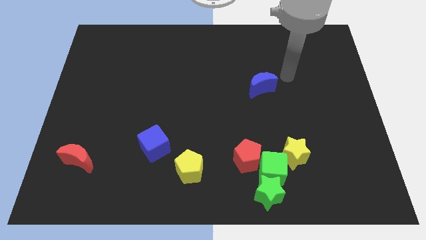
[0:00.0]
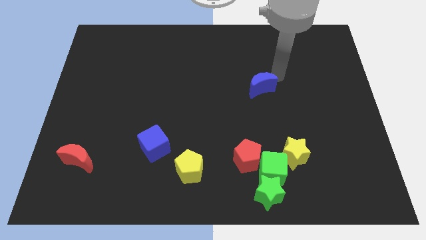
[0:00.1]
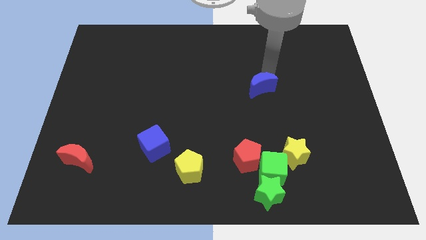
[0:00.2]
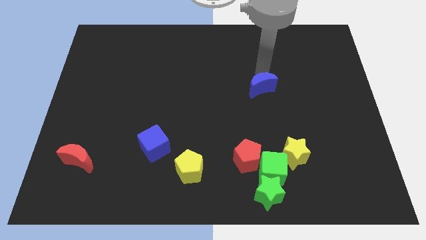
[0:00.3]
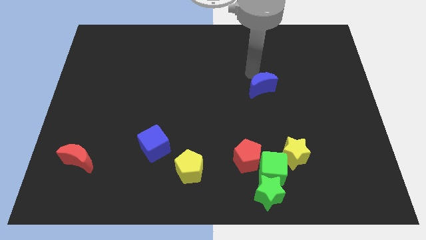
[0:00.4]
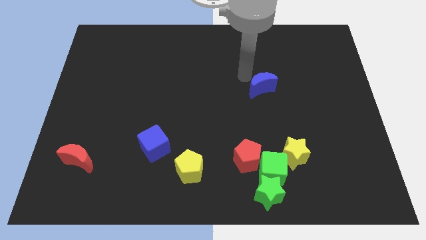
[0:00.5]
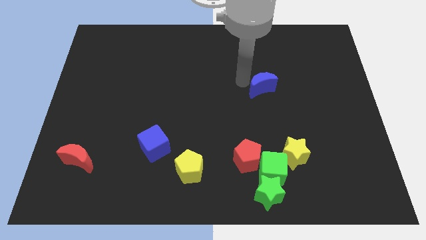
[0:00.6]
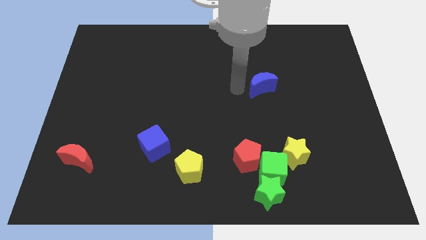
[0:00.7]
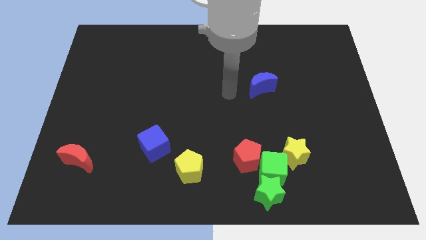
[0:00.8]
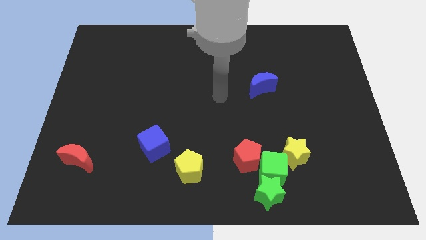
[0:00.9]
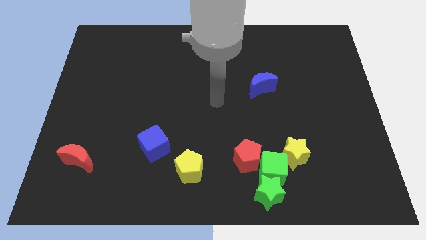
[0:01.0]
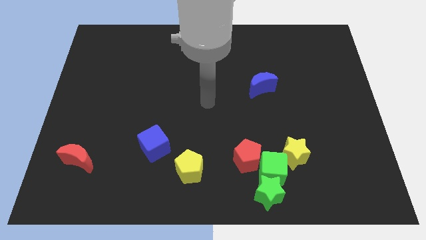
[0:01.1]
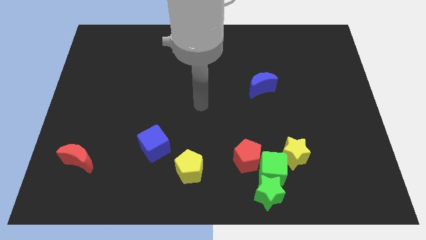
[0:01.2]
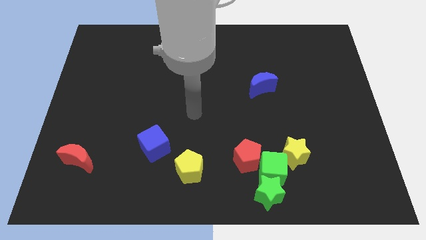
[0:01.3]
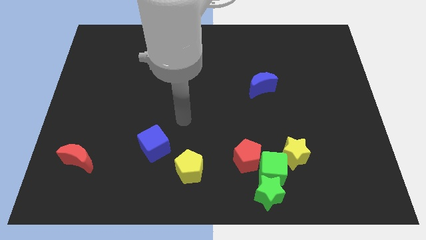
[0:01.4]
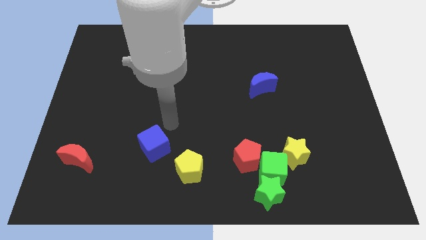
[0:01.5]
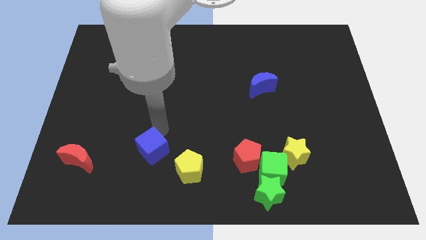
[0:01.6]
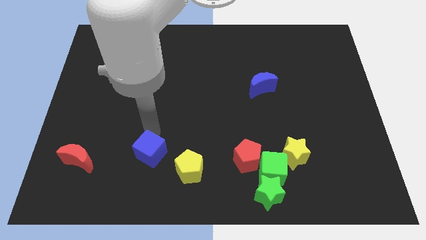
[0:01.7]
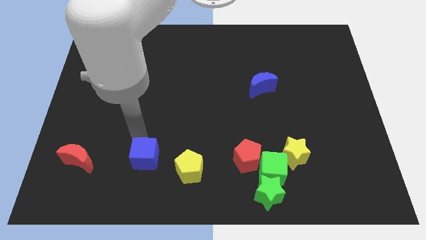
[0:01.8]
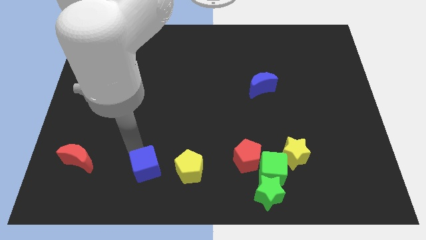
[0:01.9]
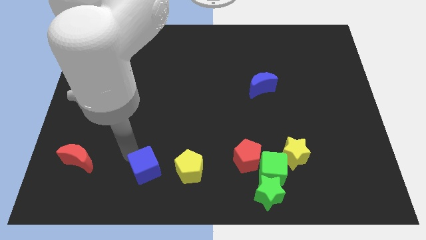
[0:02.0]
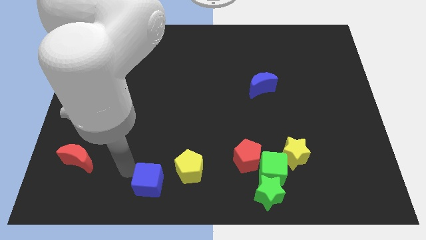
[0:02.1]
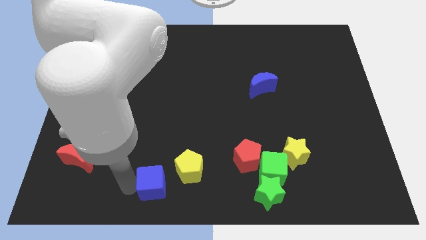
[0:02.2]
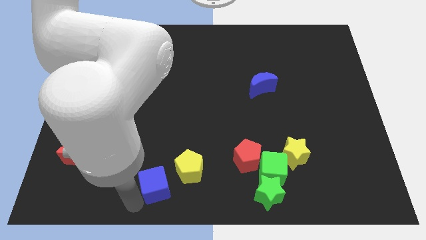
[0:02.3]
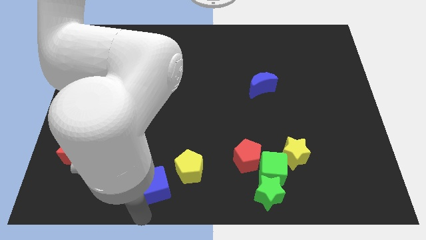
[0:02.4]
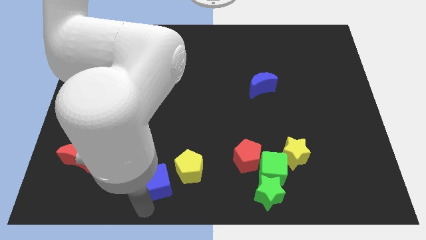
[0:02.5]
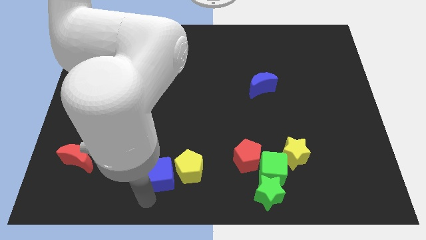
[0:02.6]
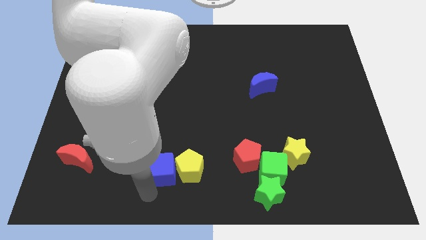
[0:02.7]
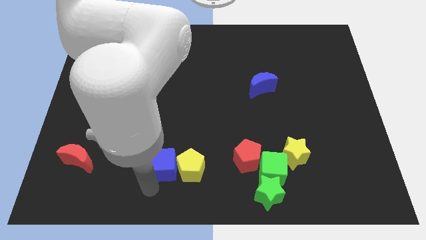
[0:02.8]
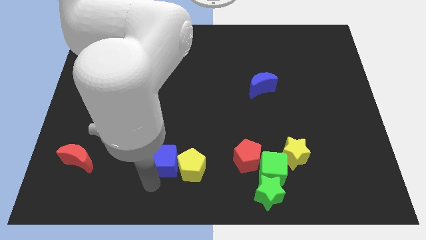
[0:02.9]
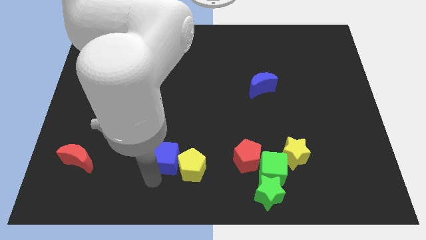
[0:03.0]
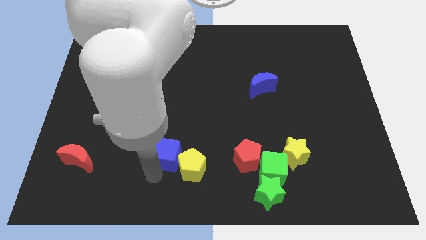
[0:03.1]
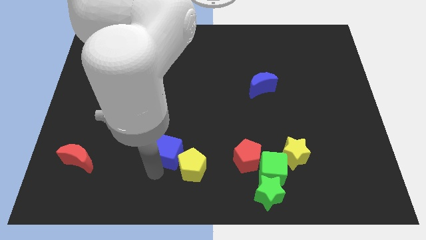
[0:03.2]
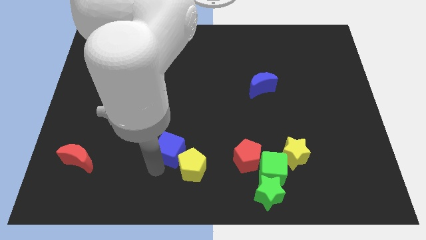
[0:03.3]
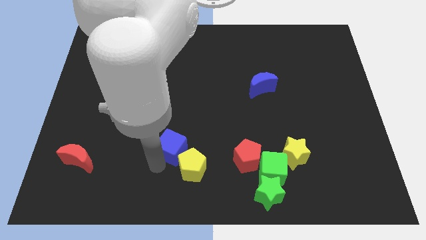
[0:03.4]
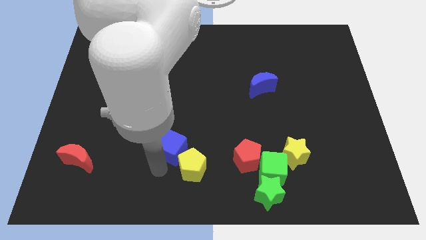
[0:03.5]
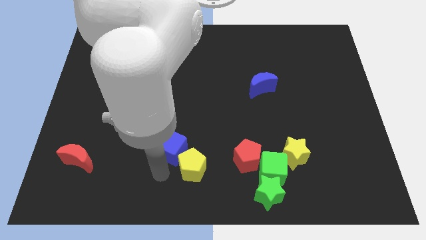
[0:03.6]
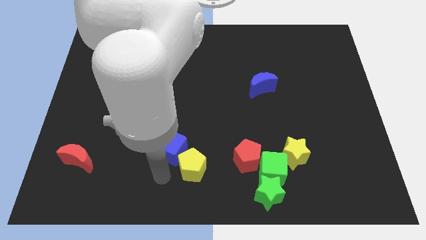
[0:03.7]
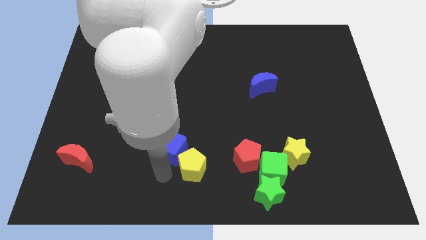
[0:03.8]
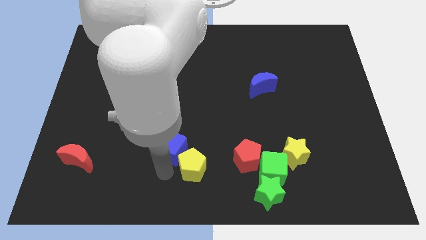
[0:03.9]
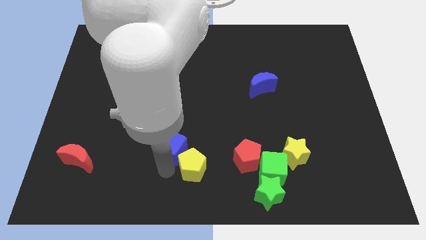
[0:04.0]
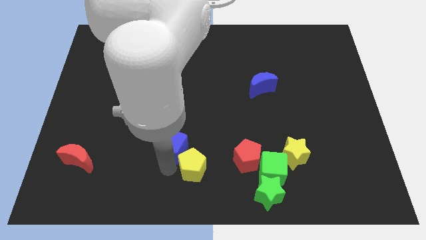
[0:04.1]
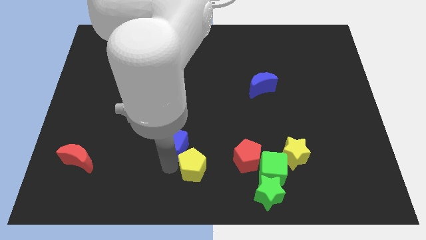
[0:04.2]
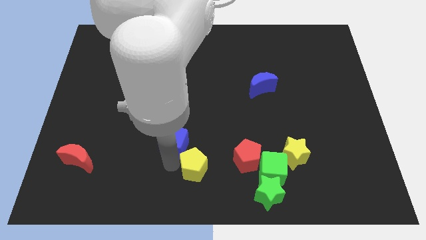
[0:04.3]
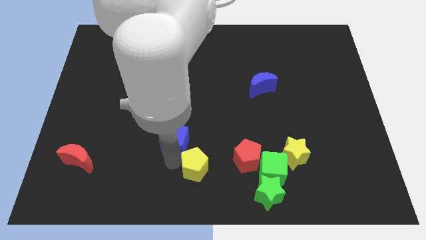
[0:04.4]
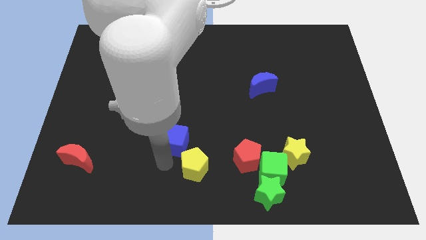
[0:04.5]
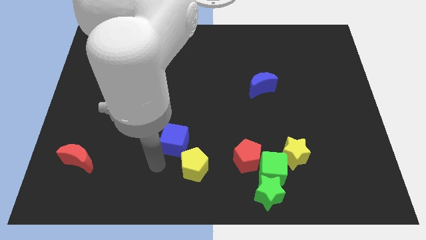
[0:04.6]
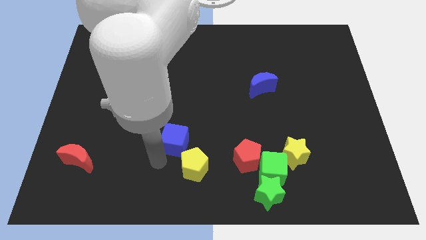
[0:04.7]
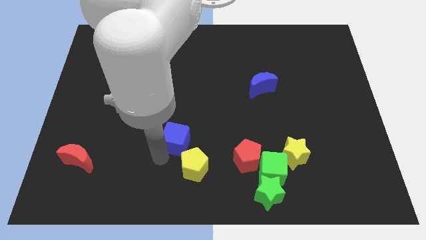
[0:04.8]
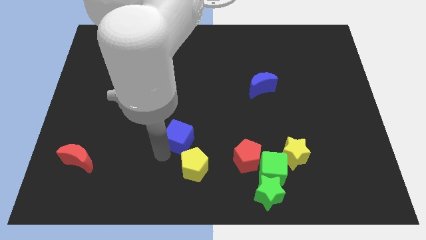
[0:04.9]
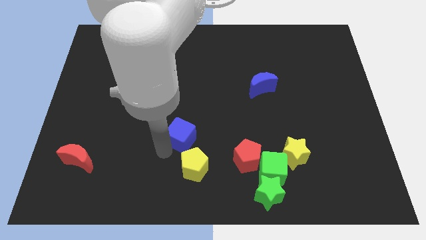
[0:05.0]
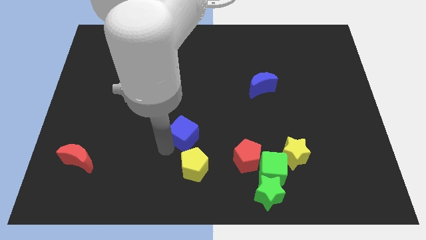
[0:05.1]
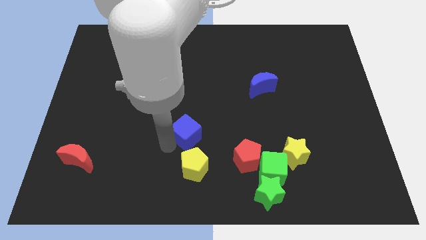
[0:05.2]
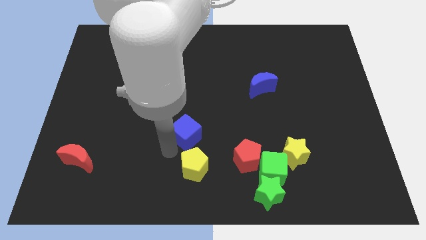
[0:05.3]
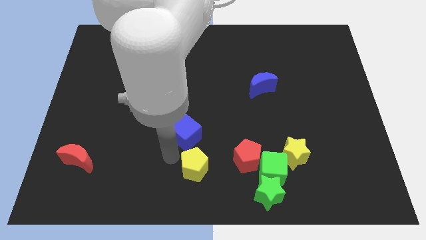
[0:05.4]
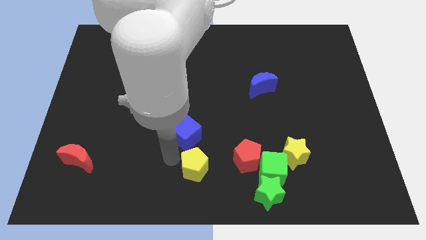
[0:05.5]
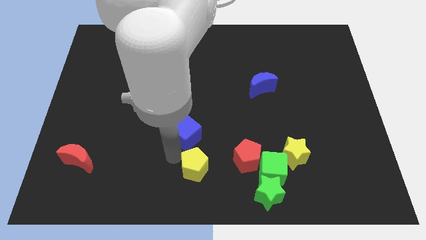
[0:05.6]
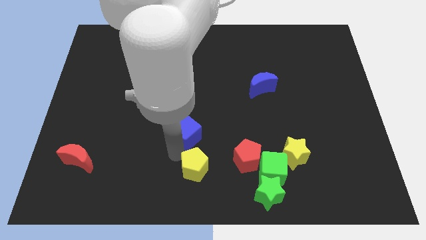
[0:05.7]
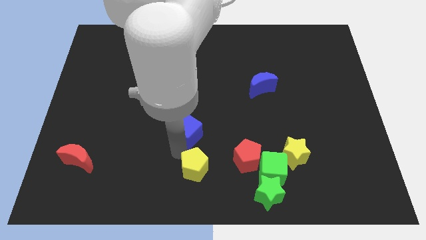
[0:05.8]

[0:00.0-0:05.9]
slide the blue cube up and then to the right a bit

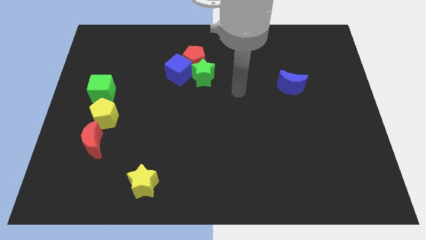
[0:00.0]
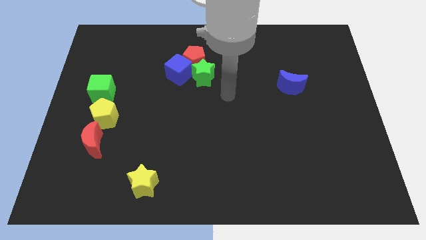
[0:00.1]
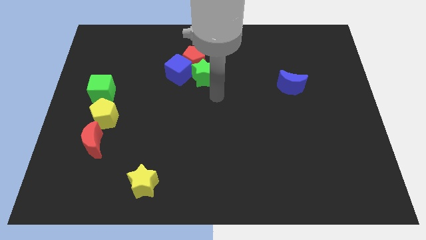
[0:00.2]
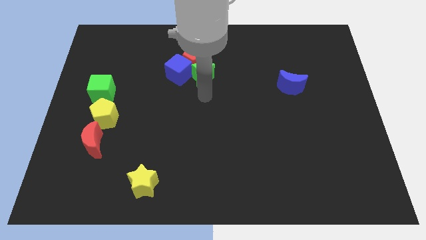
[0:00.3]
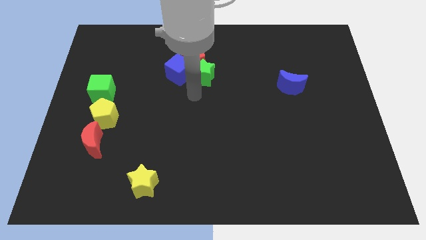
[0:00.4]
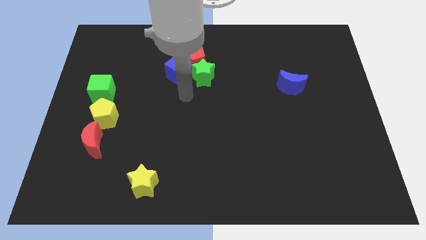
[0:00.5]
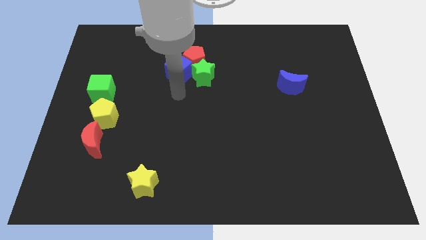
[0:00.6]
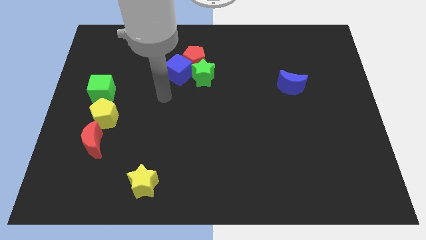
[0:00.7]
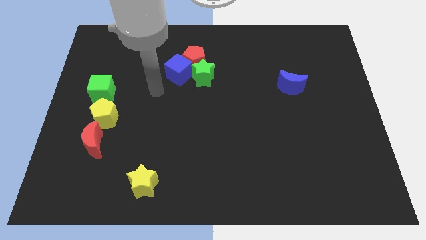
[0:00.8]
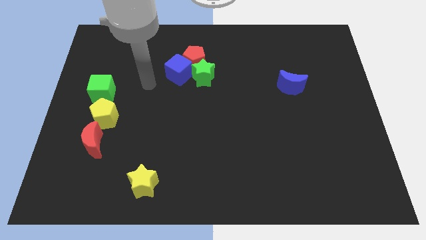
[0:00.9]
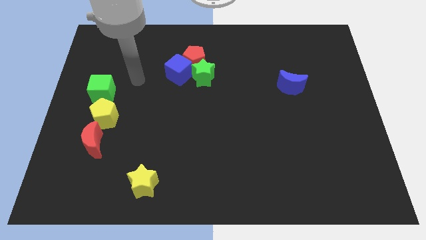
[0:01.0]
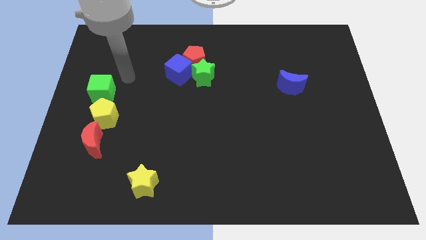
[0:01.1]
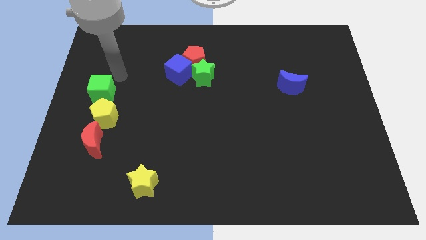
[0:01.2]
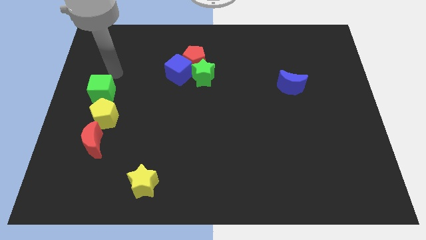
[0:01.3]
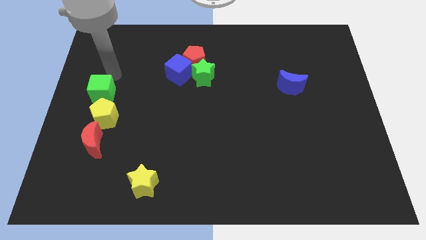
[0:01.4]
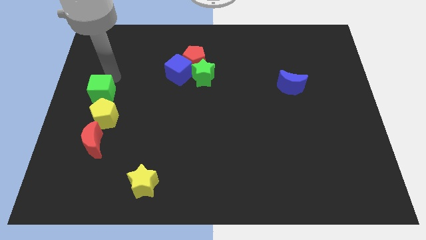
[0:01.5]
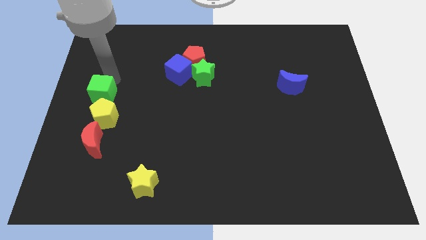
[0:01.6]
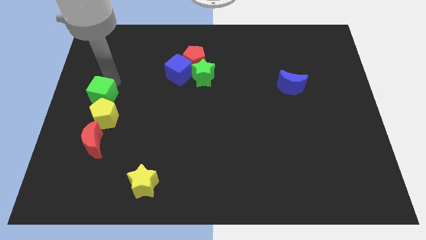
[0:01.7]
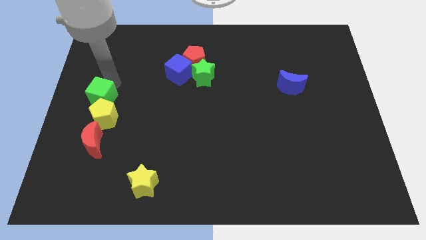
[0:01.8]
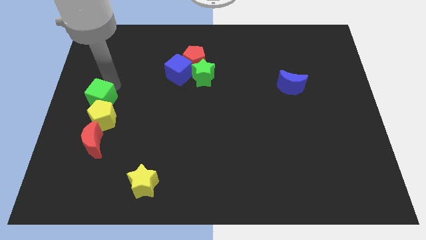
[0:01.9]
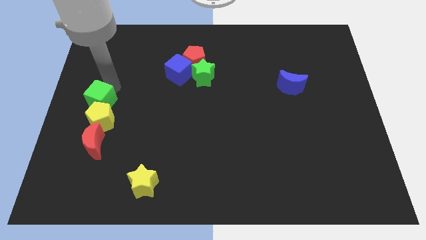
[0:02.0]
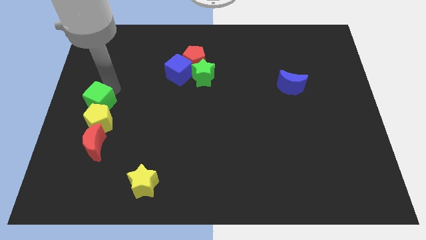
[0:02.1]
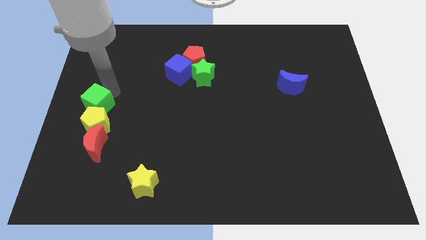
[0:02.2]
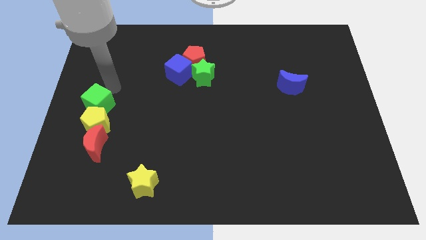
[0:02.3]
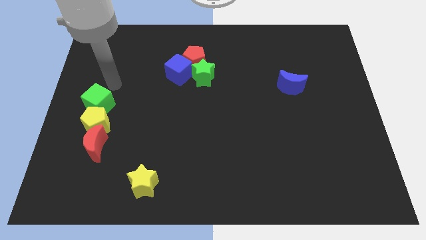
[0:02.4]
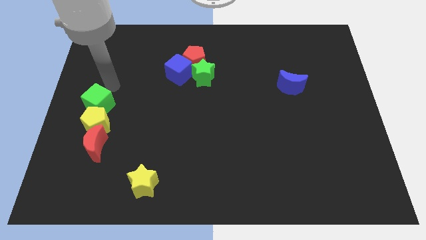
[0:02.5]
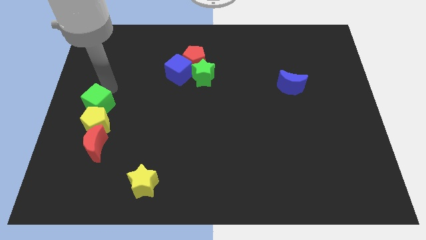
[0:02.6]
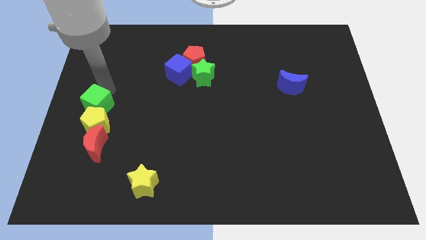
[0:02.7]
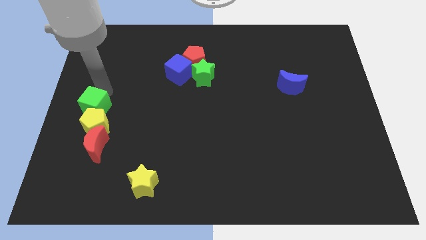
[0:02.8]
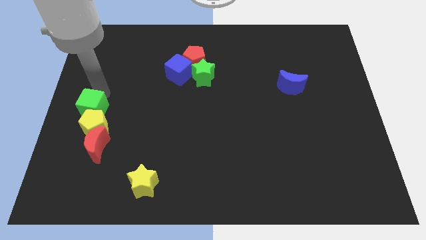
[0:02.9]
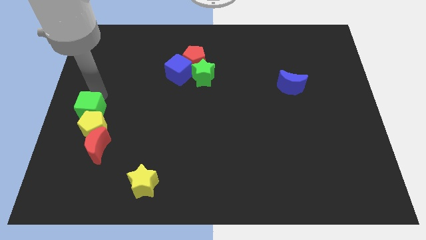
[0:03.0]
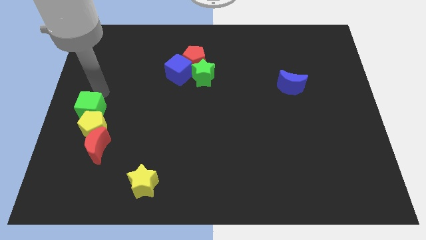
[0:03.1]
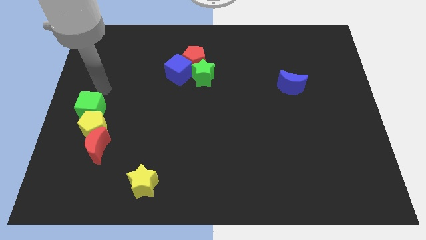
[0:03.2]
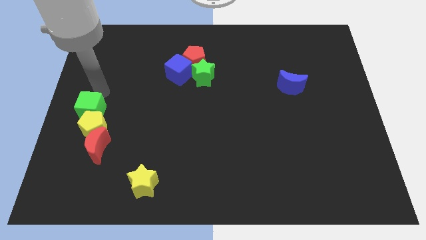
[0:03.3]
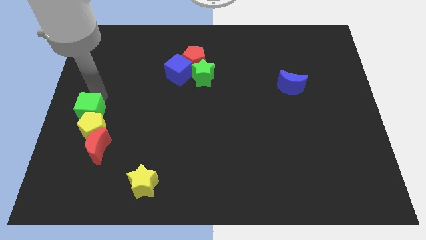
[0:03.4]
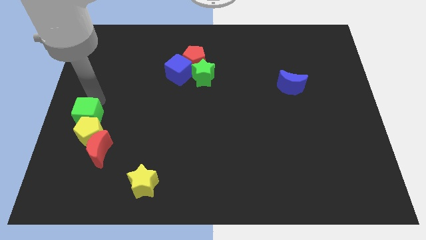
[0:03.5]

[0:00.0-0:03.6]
push the green cube a little down
